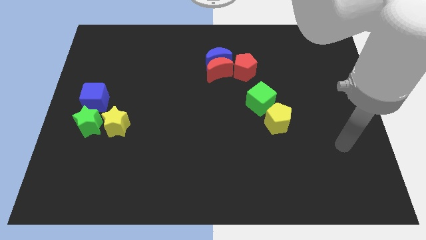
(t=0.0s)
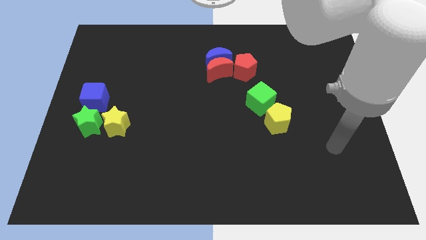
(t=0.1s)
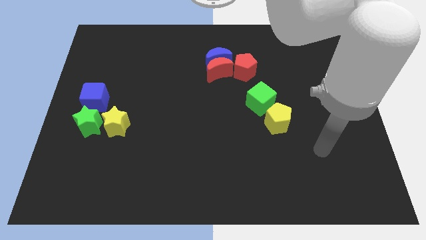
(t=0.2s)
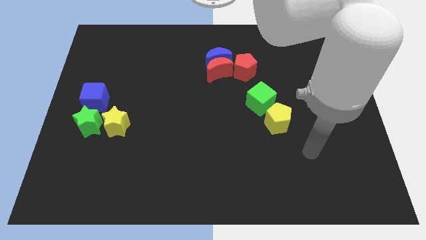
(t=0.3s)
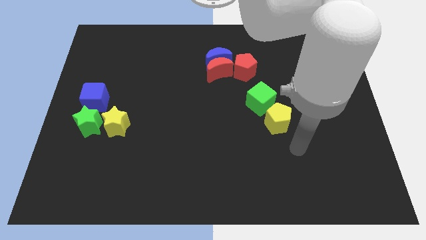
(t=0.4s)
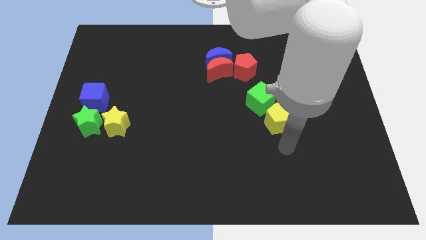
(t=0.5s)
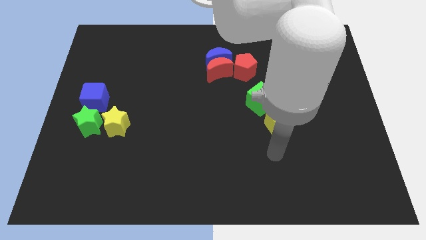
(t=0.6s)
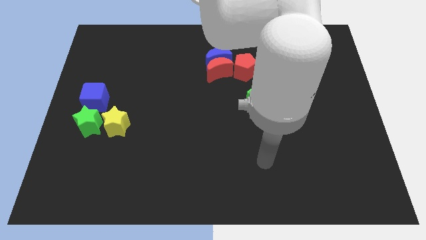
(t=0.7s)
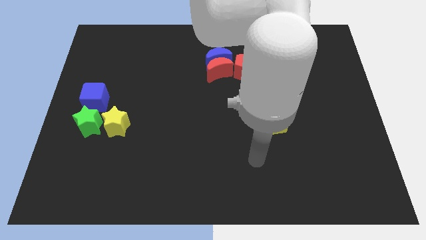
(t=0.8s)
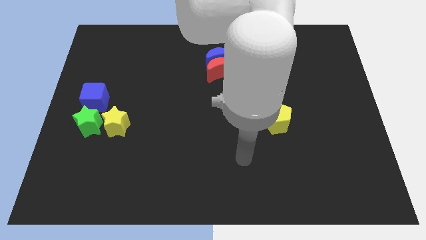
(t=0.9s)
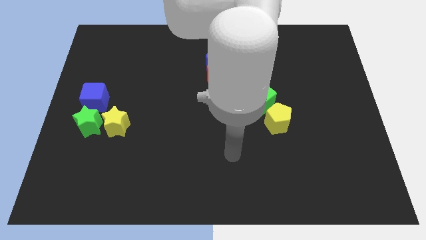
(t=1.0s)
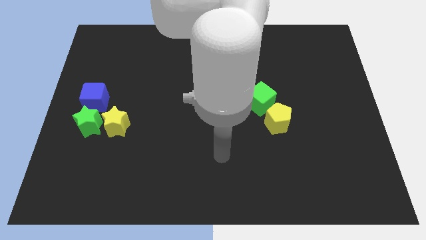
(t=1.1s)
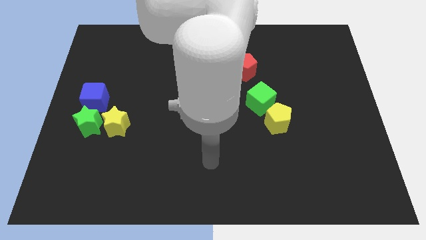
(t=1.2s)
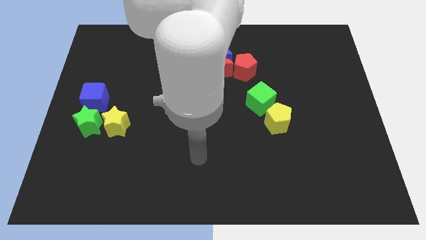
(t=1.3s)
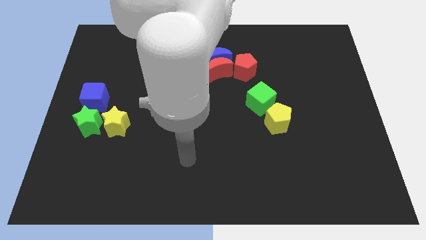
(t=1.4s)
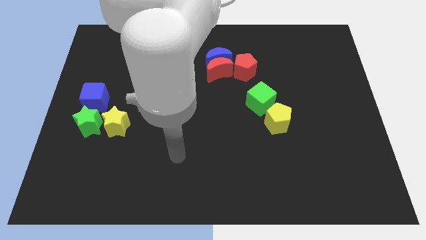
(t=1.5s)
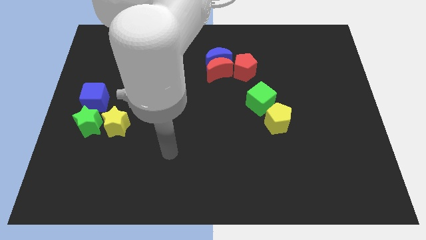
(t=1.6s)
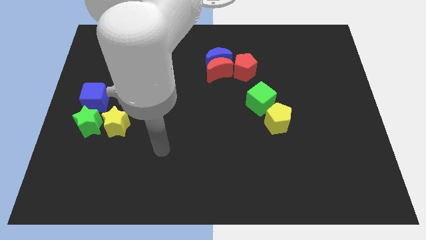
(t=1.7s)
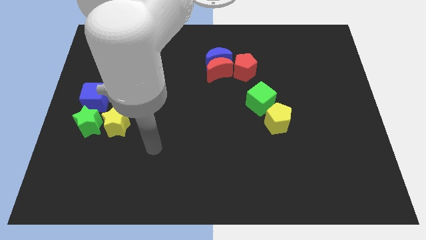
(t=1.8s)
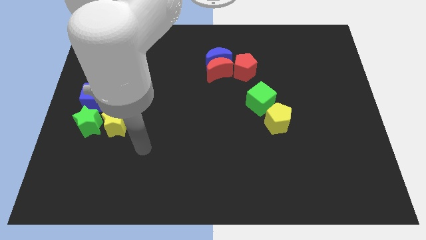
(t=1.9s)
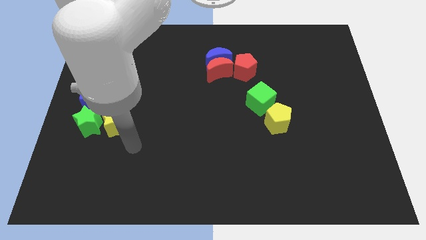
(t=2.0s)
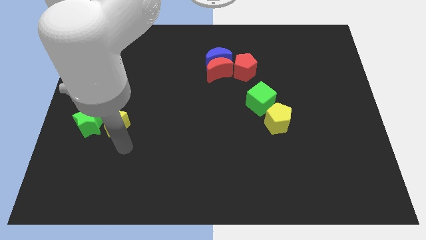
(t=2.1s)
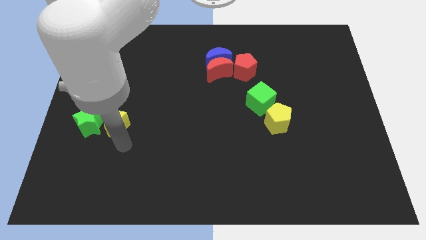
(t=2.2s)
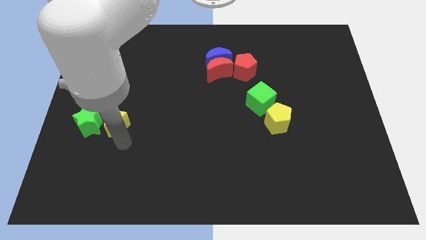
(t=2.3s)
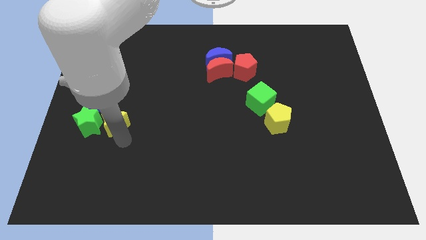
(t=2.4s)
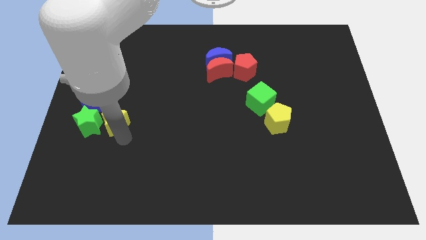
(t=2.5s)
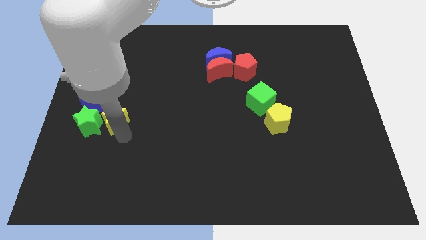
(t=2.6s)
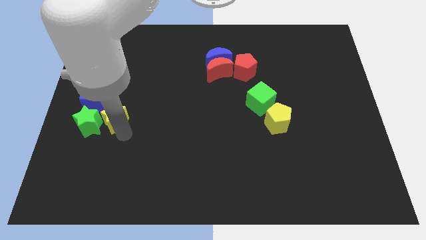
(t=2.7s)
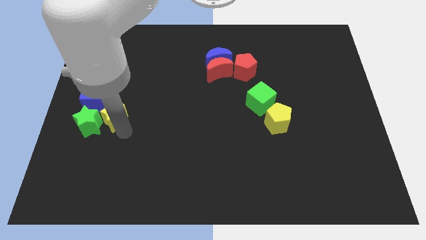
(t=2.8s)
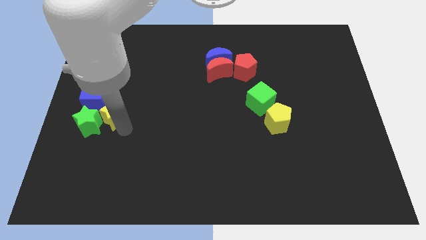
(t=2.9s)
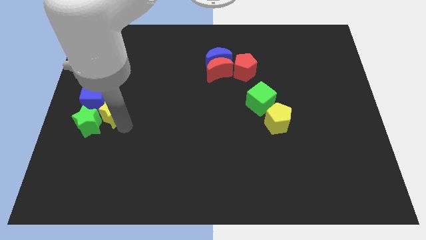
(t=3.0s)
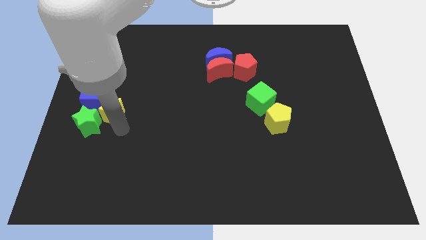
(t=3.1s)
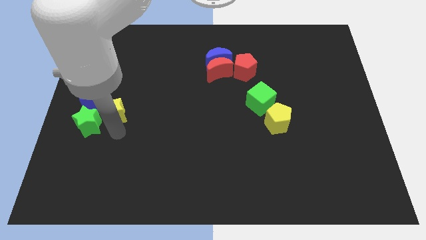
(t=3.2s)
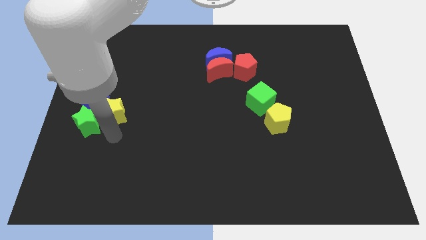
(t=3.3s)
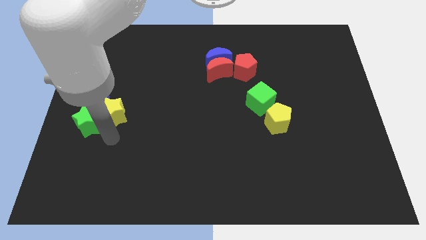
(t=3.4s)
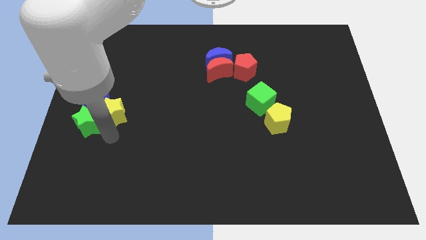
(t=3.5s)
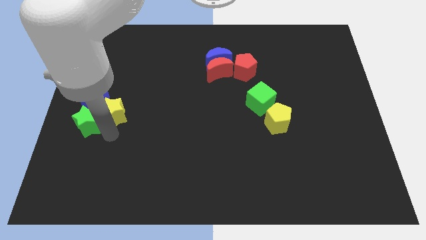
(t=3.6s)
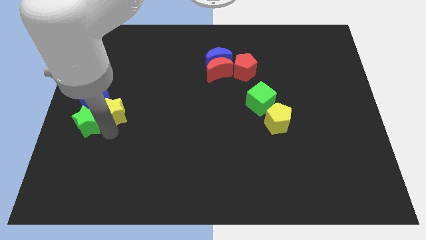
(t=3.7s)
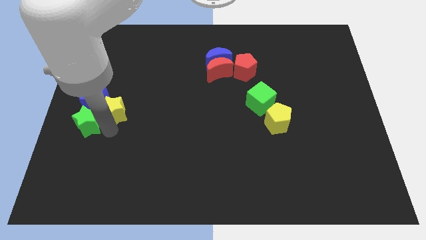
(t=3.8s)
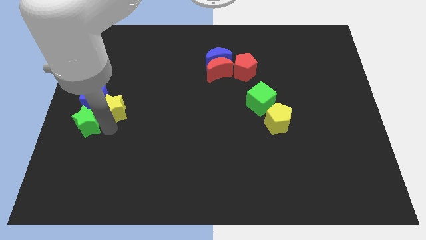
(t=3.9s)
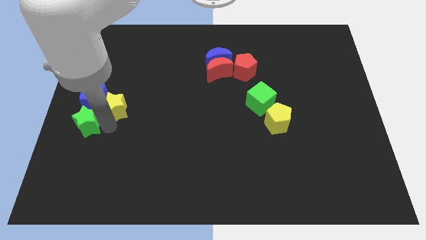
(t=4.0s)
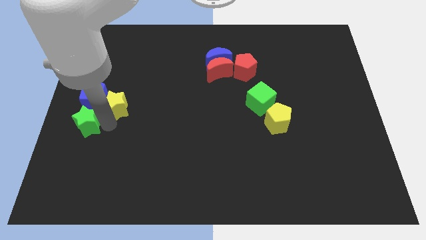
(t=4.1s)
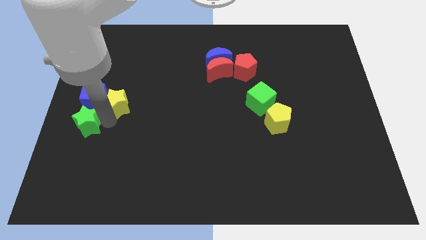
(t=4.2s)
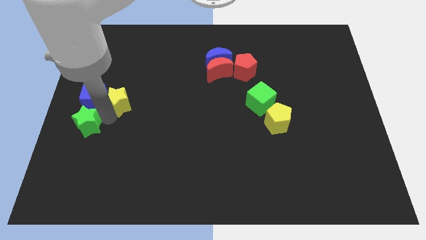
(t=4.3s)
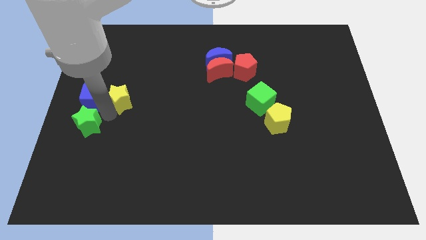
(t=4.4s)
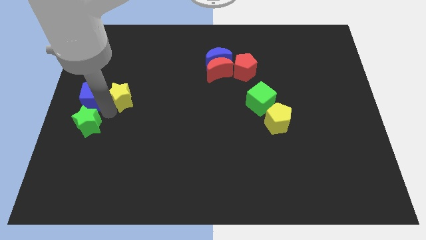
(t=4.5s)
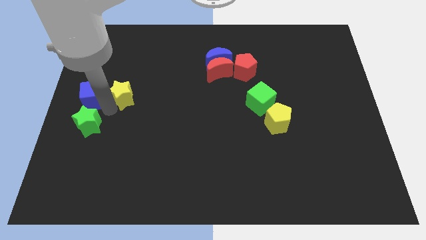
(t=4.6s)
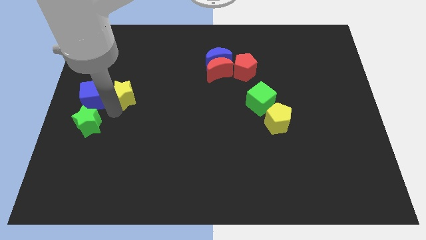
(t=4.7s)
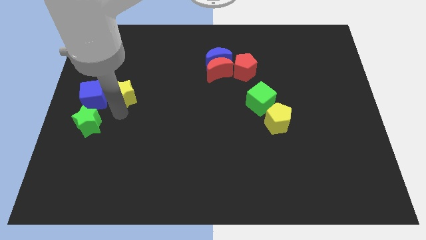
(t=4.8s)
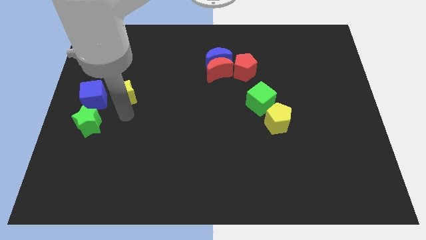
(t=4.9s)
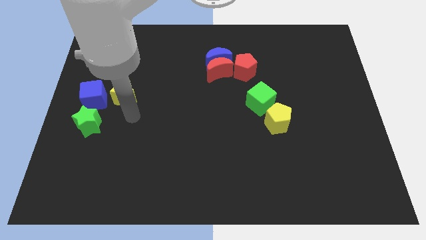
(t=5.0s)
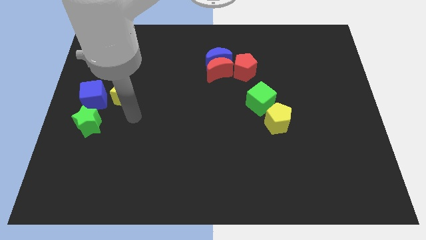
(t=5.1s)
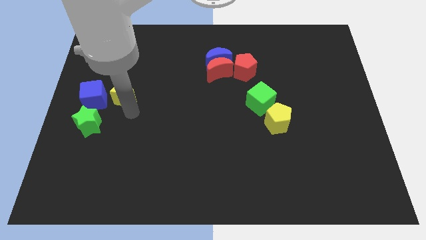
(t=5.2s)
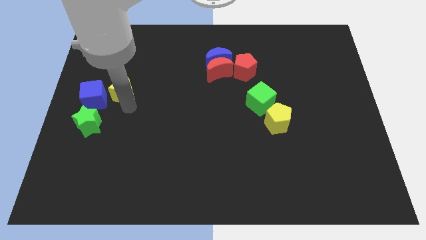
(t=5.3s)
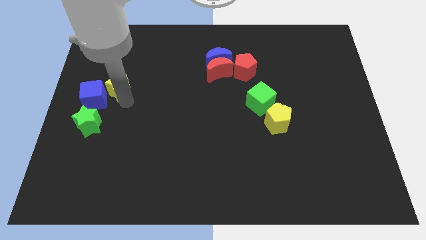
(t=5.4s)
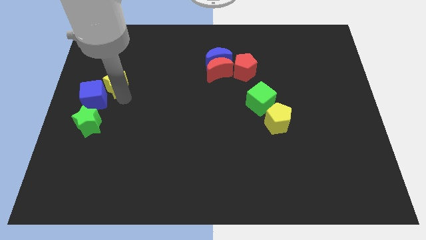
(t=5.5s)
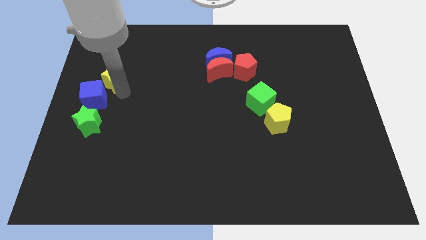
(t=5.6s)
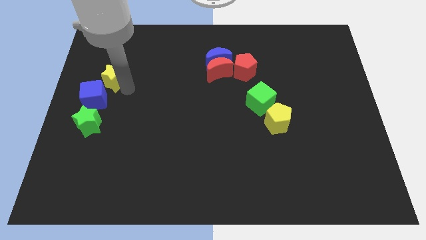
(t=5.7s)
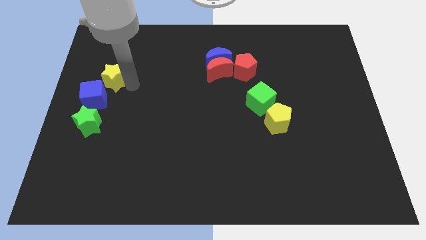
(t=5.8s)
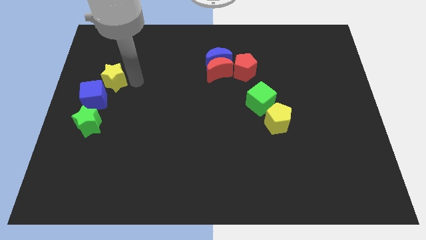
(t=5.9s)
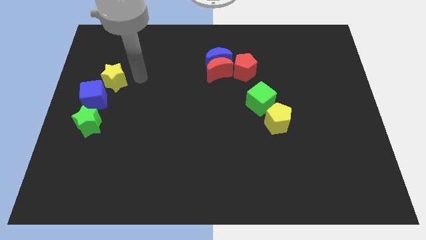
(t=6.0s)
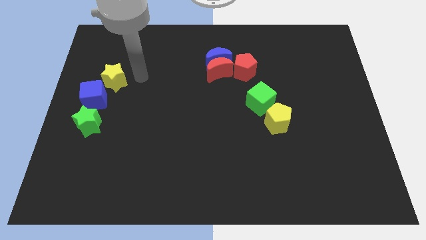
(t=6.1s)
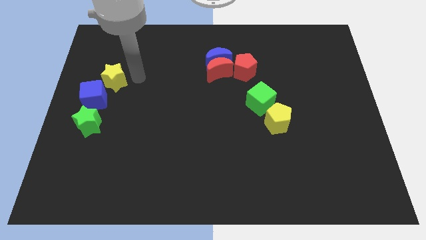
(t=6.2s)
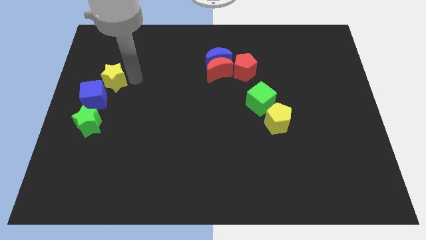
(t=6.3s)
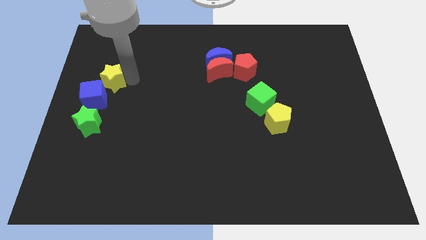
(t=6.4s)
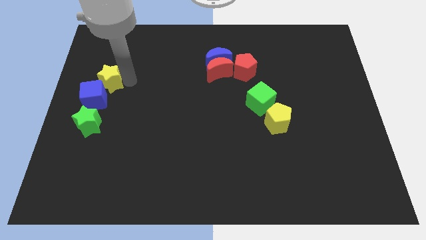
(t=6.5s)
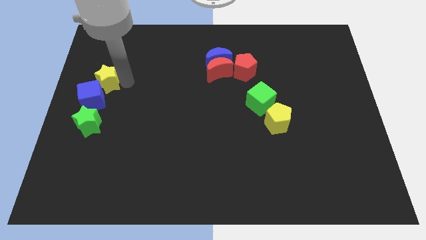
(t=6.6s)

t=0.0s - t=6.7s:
put the yellow star to the left side of the board

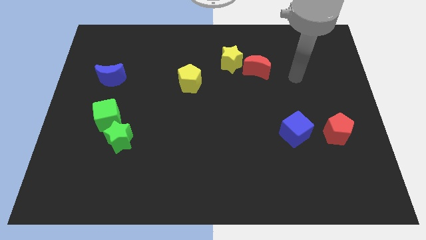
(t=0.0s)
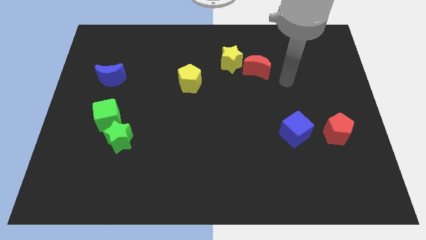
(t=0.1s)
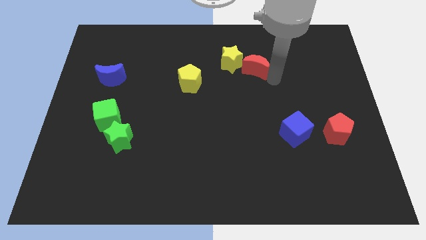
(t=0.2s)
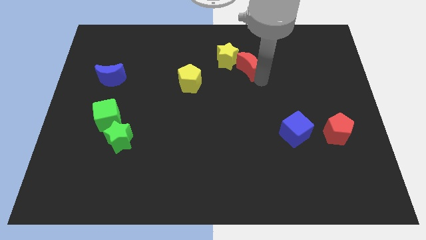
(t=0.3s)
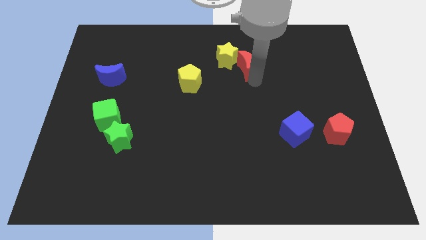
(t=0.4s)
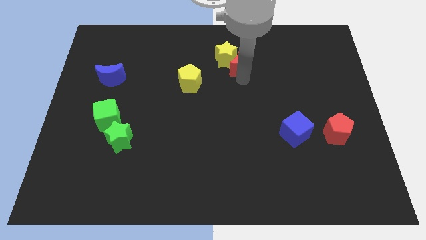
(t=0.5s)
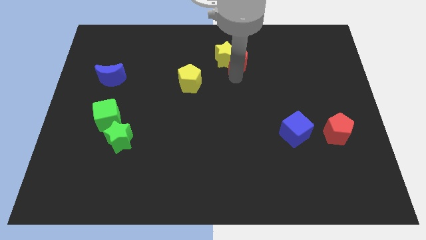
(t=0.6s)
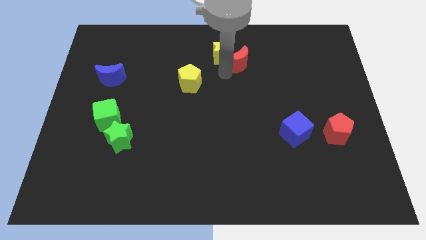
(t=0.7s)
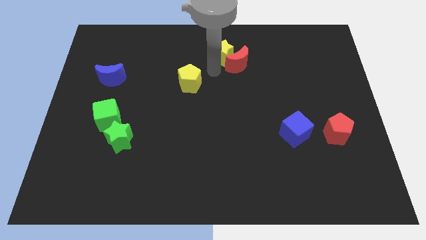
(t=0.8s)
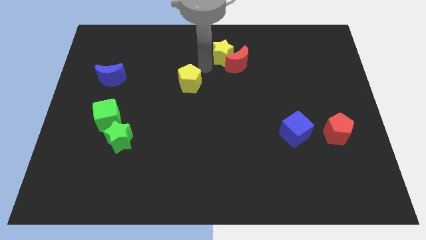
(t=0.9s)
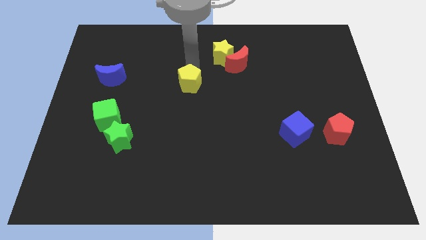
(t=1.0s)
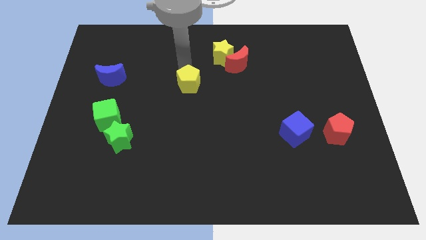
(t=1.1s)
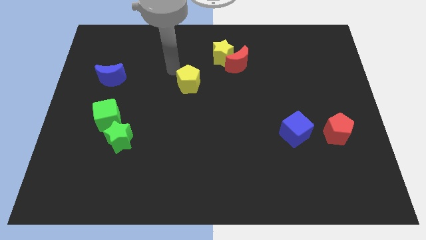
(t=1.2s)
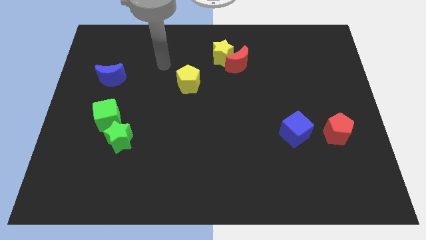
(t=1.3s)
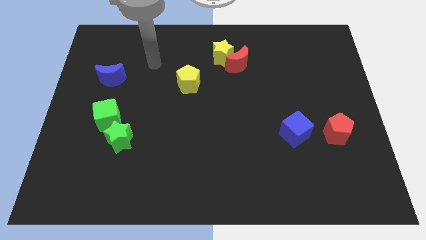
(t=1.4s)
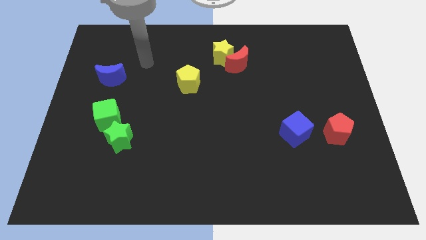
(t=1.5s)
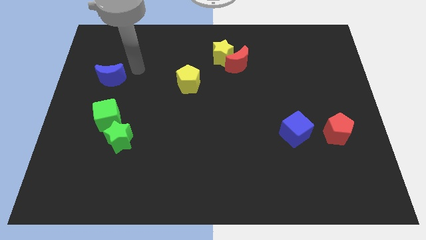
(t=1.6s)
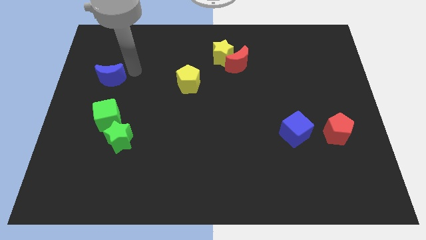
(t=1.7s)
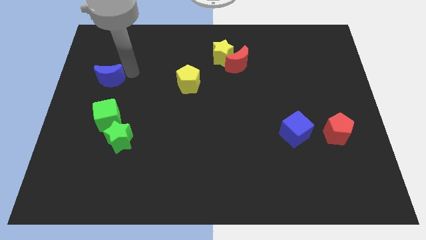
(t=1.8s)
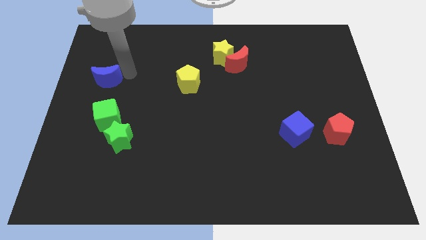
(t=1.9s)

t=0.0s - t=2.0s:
move the blue moon to the center left
